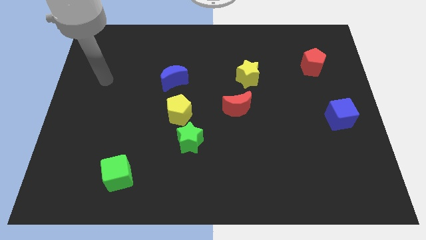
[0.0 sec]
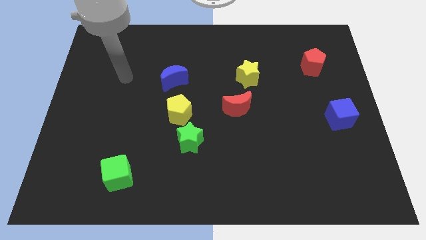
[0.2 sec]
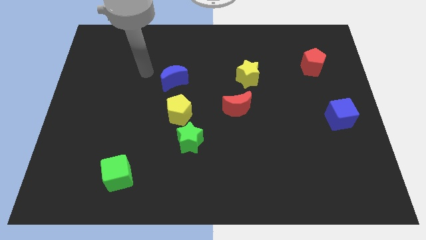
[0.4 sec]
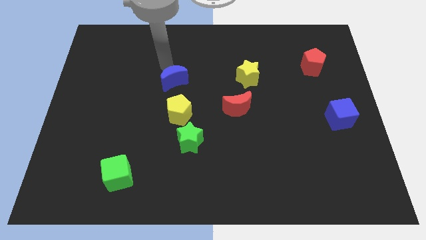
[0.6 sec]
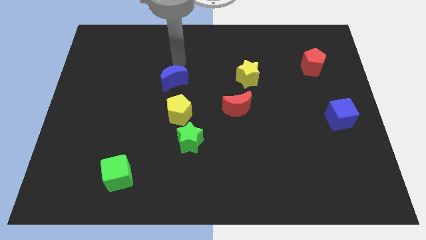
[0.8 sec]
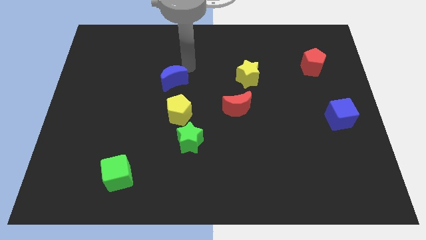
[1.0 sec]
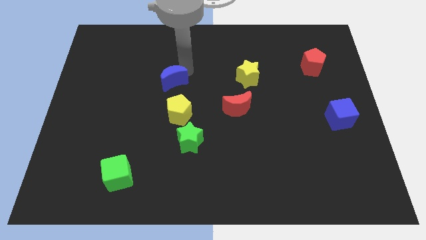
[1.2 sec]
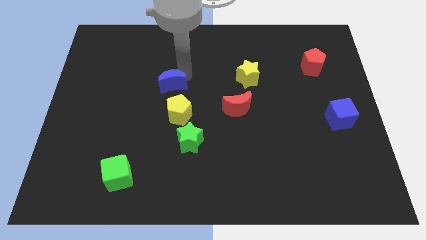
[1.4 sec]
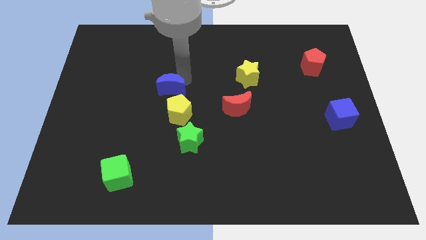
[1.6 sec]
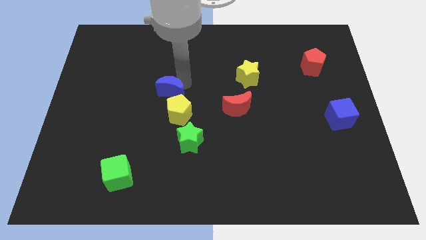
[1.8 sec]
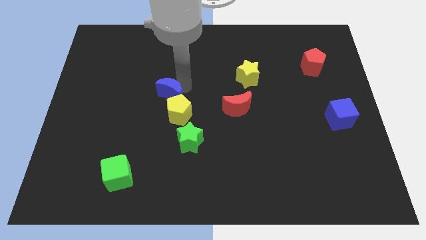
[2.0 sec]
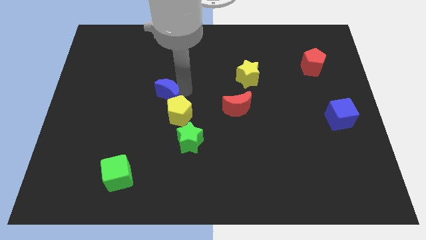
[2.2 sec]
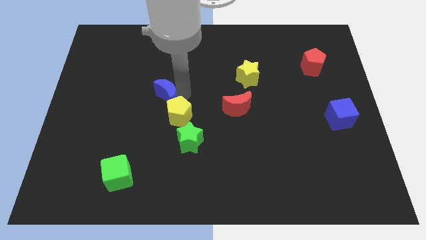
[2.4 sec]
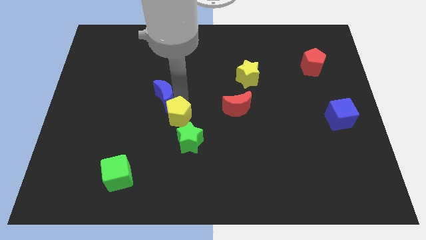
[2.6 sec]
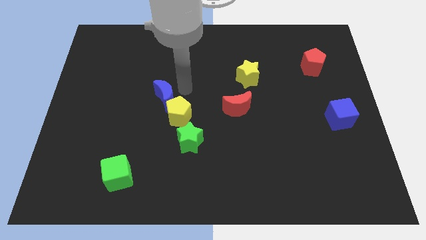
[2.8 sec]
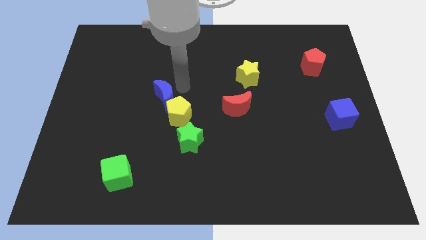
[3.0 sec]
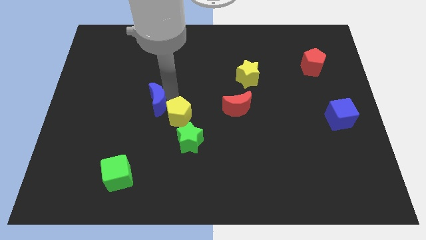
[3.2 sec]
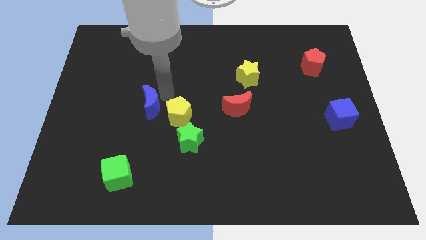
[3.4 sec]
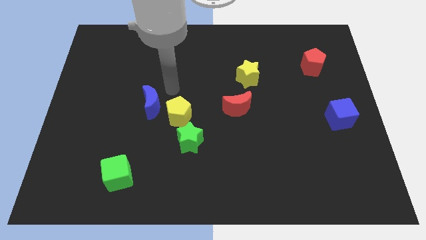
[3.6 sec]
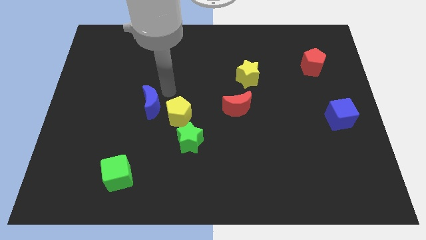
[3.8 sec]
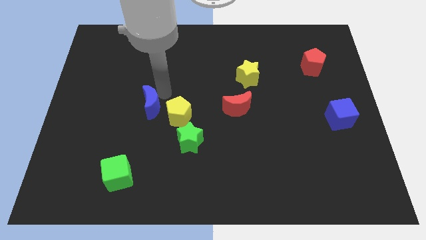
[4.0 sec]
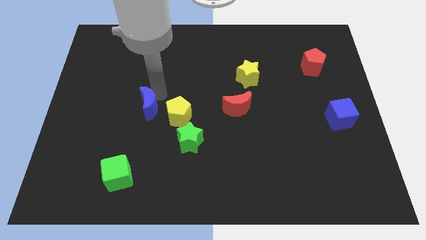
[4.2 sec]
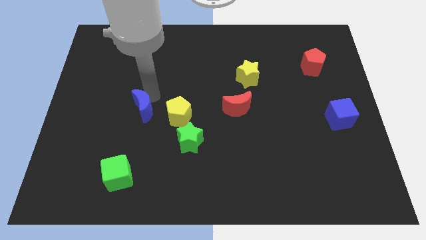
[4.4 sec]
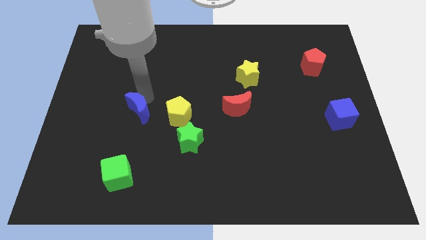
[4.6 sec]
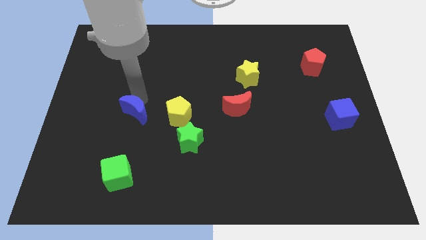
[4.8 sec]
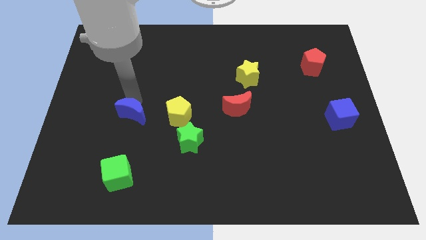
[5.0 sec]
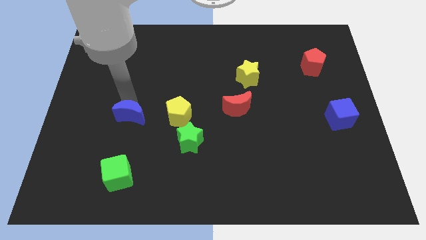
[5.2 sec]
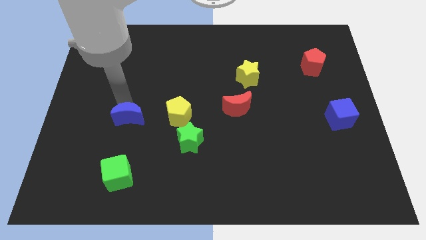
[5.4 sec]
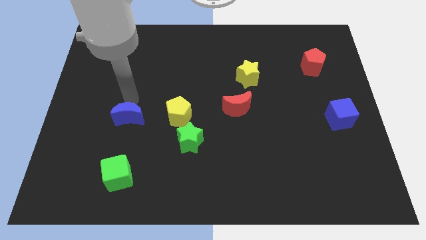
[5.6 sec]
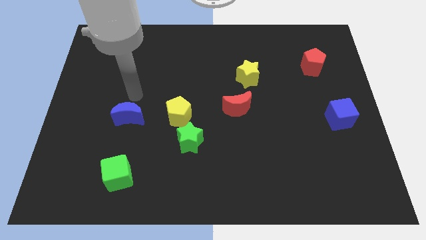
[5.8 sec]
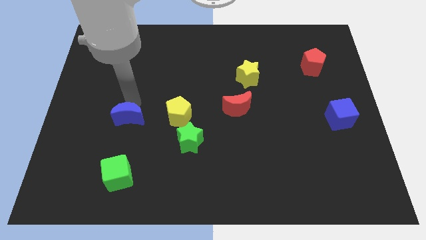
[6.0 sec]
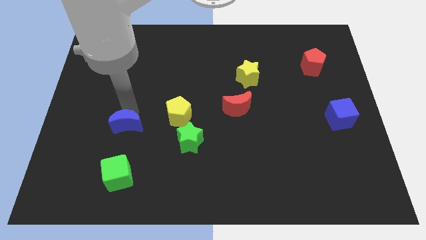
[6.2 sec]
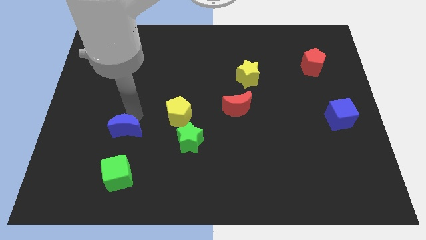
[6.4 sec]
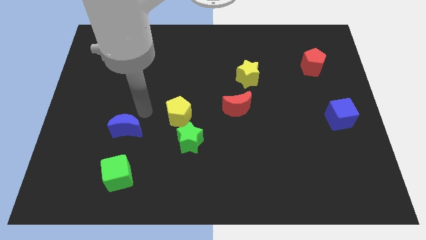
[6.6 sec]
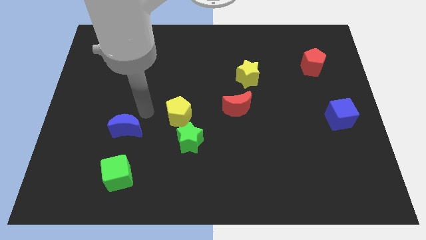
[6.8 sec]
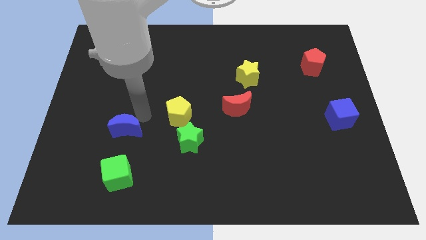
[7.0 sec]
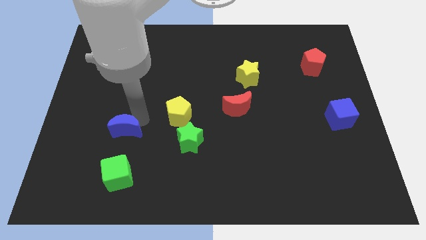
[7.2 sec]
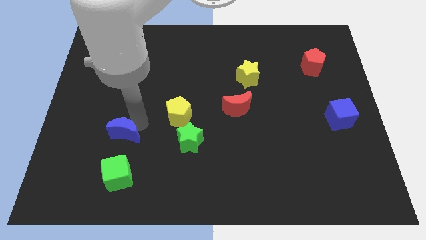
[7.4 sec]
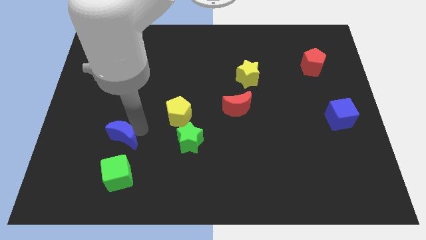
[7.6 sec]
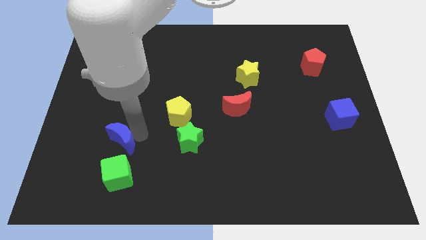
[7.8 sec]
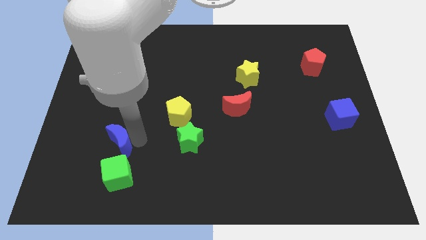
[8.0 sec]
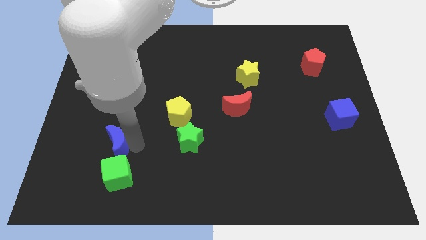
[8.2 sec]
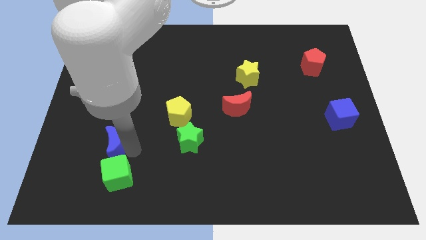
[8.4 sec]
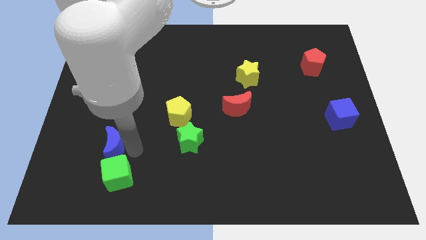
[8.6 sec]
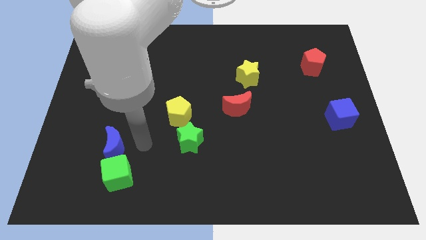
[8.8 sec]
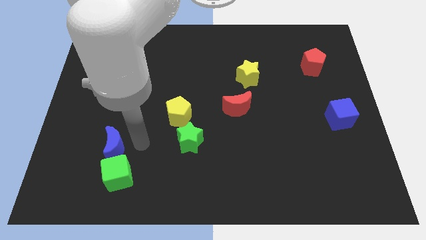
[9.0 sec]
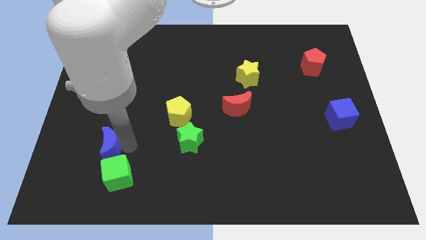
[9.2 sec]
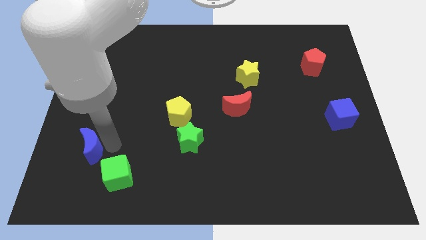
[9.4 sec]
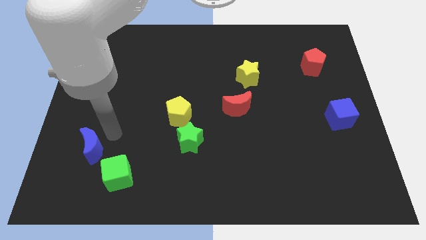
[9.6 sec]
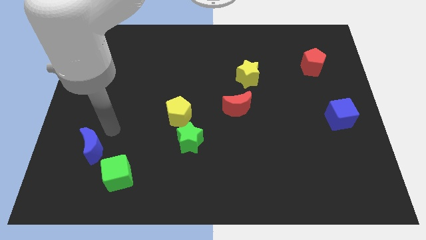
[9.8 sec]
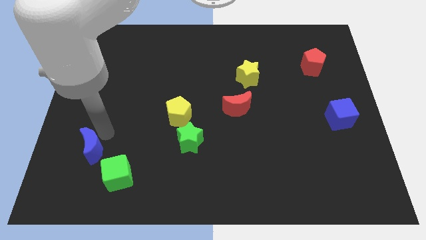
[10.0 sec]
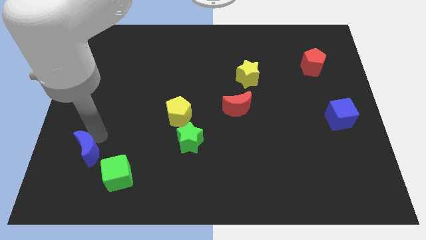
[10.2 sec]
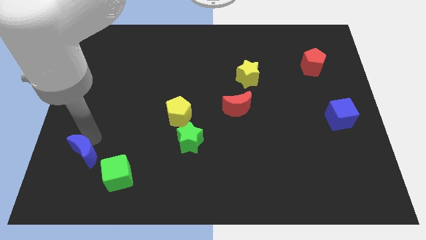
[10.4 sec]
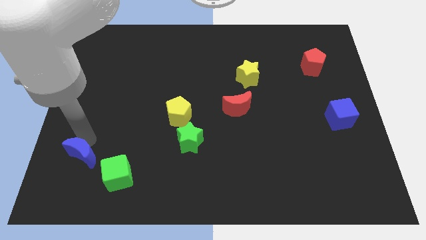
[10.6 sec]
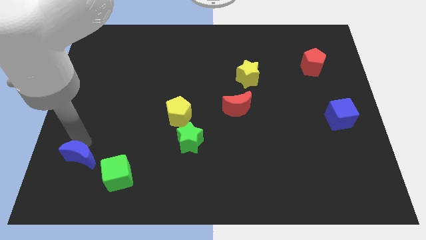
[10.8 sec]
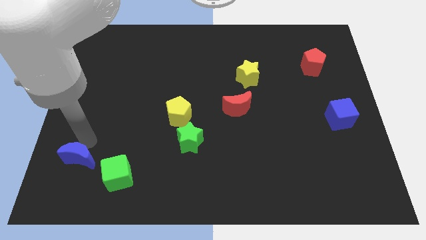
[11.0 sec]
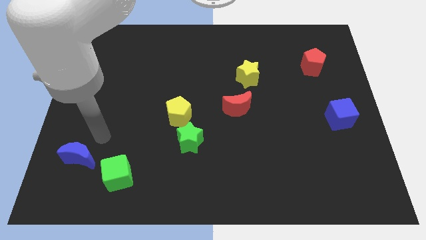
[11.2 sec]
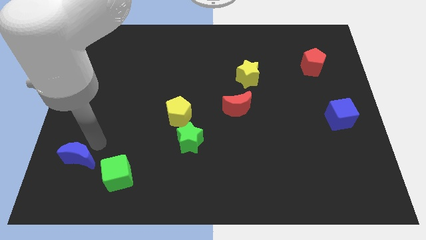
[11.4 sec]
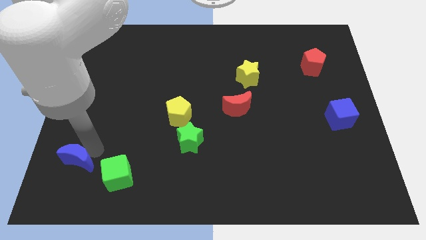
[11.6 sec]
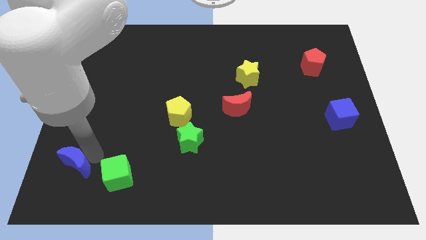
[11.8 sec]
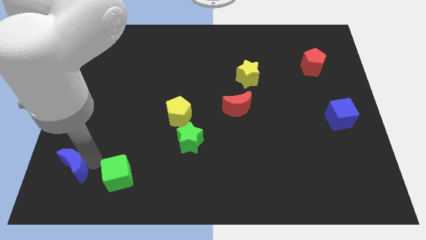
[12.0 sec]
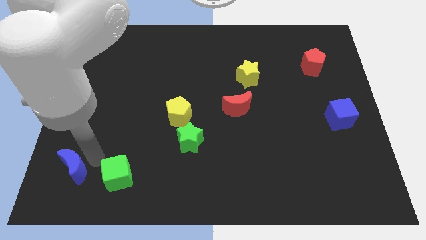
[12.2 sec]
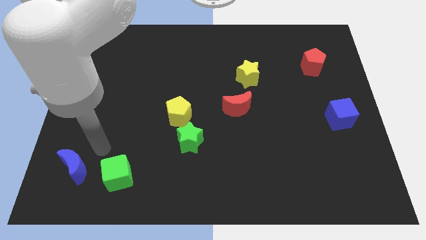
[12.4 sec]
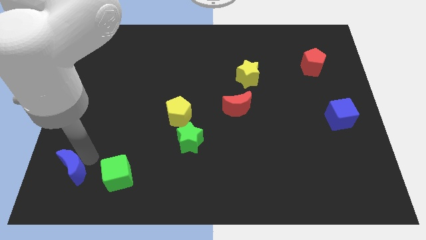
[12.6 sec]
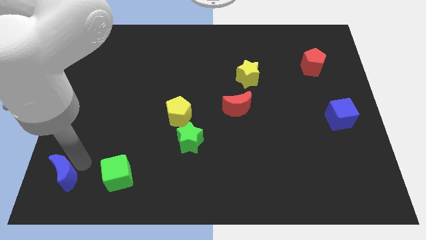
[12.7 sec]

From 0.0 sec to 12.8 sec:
put the blue moon to the bottom left corner
